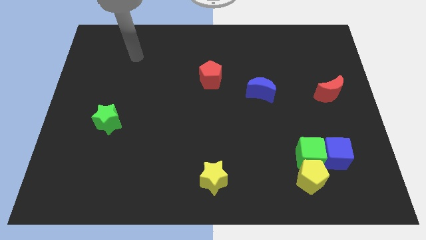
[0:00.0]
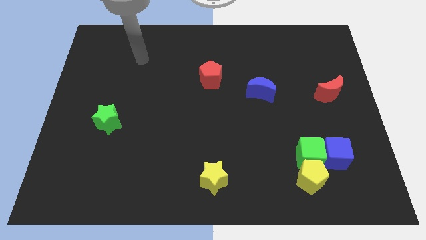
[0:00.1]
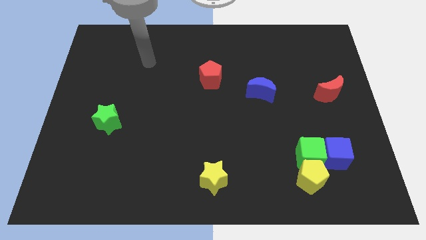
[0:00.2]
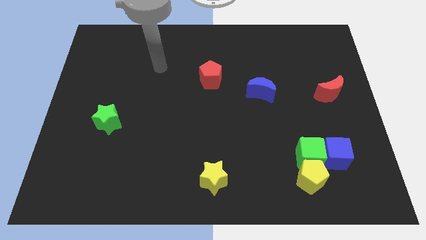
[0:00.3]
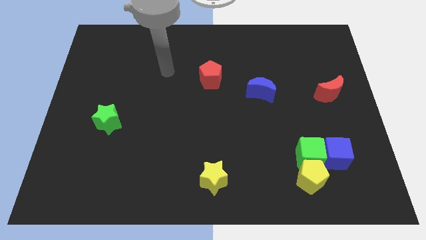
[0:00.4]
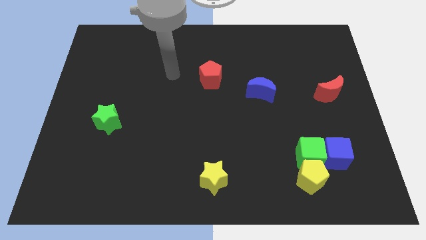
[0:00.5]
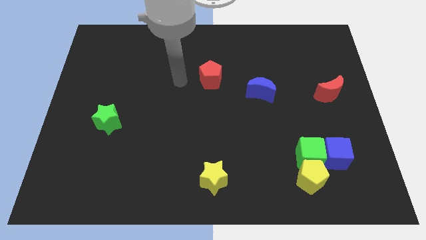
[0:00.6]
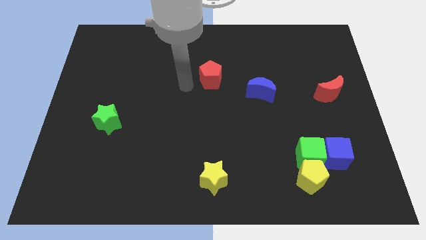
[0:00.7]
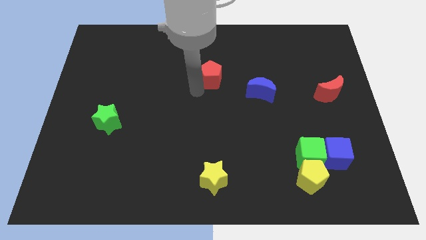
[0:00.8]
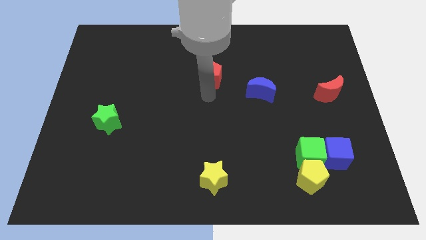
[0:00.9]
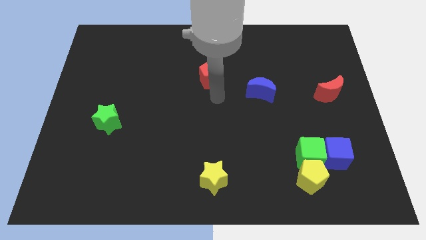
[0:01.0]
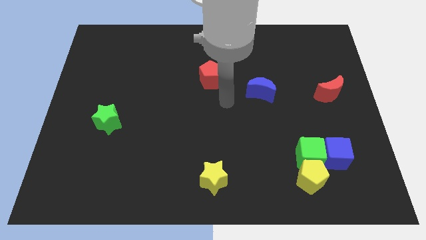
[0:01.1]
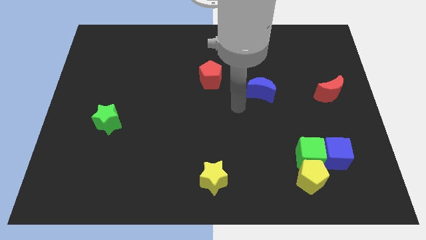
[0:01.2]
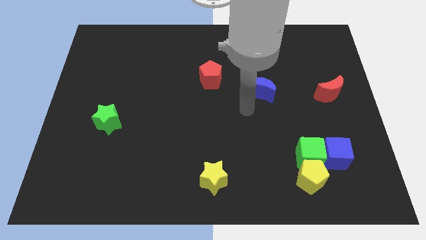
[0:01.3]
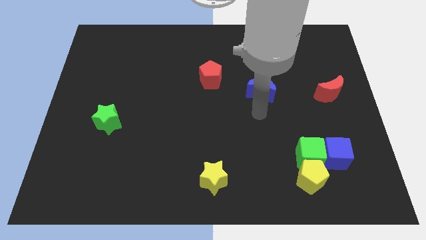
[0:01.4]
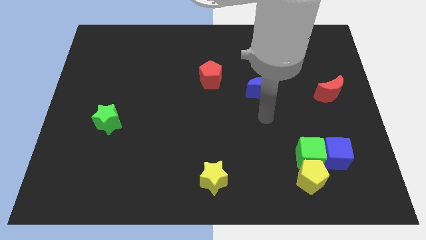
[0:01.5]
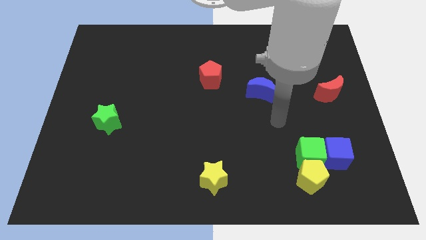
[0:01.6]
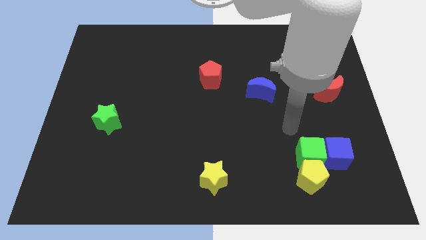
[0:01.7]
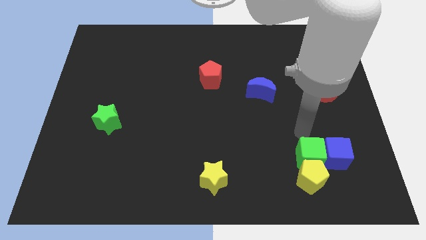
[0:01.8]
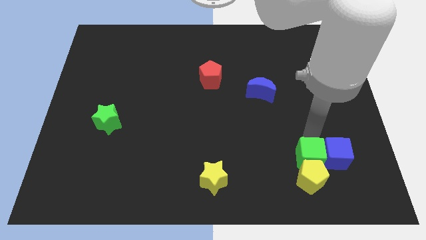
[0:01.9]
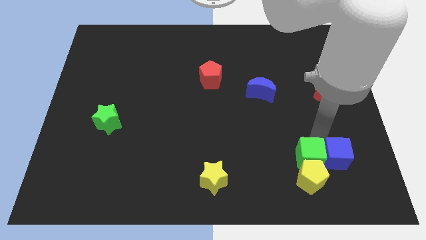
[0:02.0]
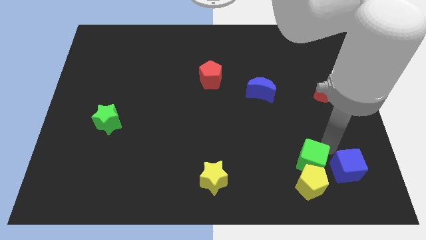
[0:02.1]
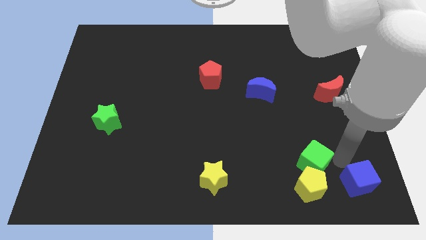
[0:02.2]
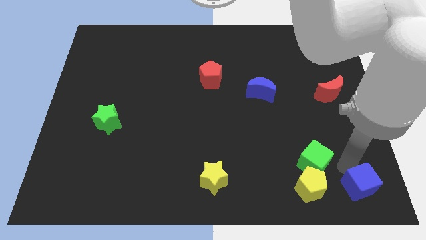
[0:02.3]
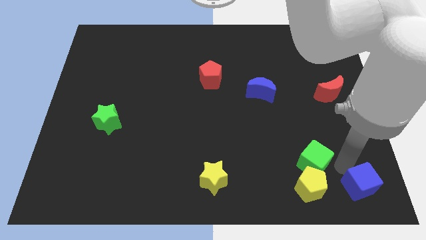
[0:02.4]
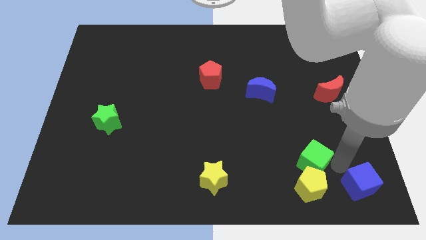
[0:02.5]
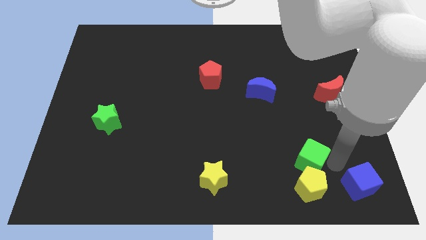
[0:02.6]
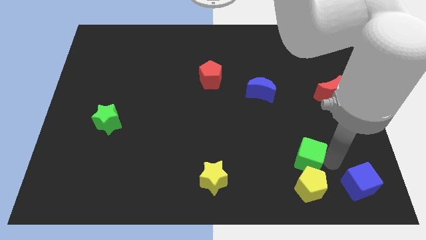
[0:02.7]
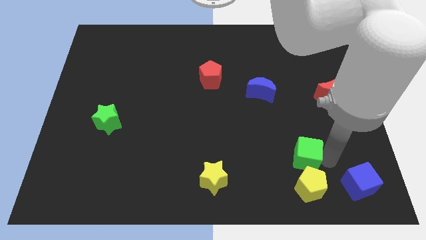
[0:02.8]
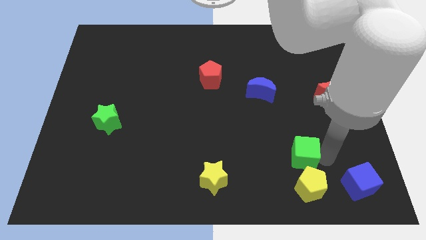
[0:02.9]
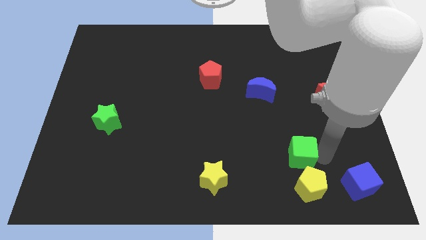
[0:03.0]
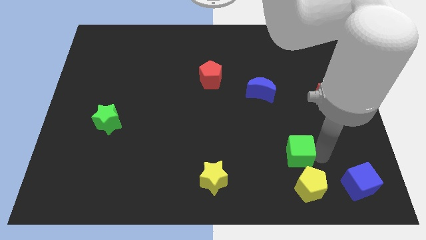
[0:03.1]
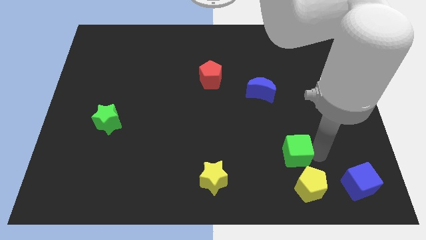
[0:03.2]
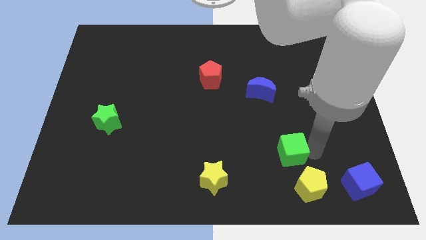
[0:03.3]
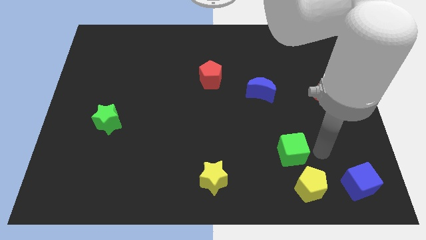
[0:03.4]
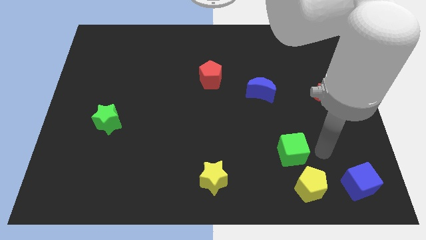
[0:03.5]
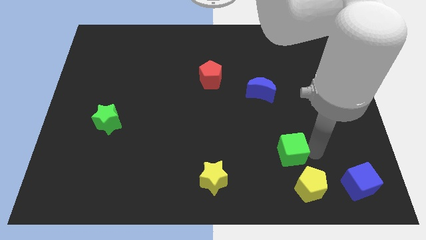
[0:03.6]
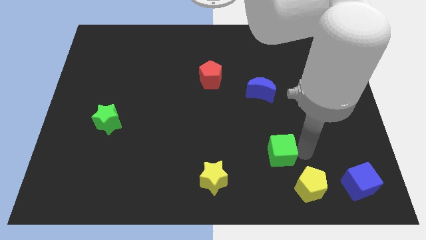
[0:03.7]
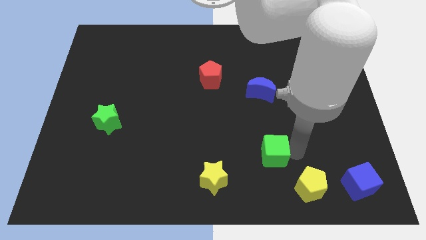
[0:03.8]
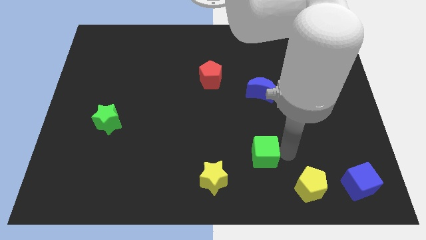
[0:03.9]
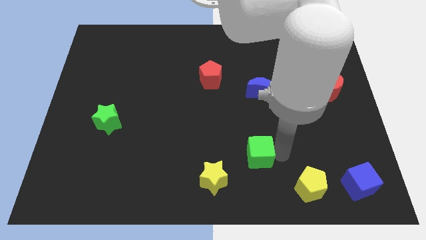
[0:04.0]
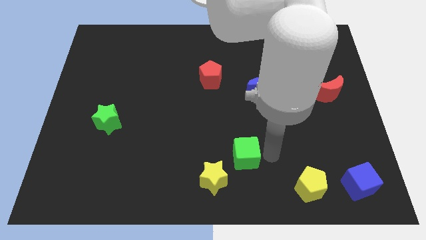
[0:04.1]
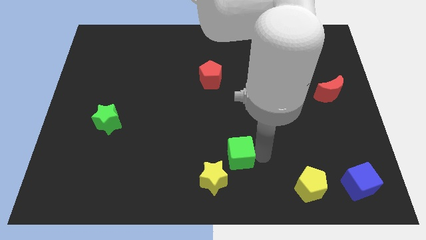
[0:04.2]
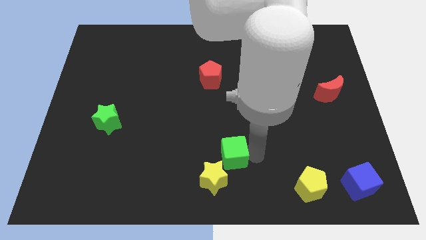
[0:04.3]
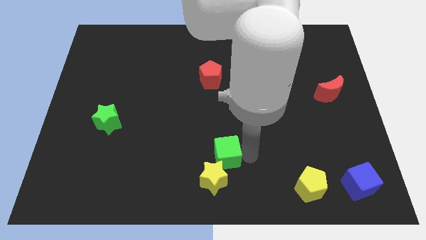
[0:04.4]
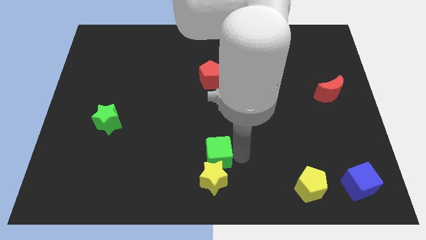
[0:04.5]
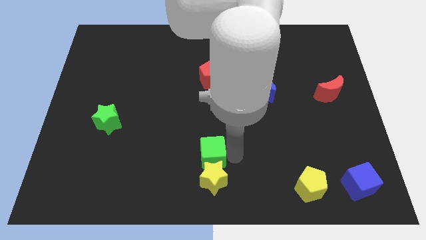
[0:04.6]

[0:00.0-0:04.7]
move the green cube to the left

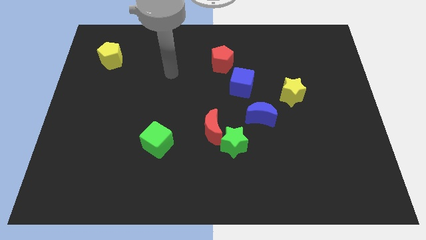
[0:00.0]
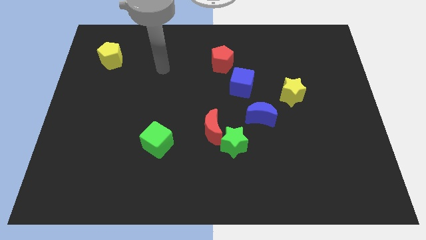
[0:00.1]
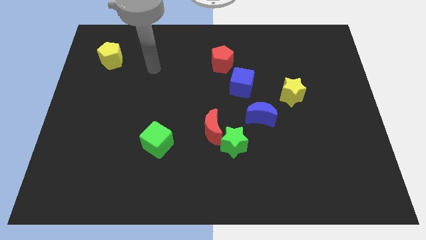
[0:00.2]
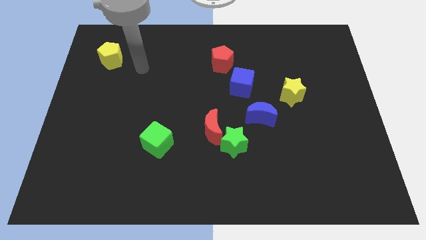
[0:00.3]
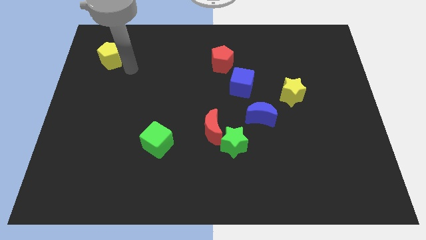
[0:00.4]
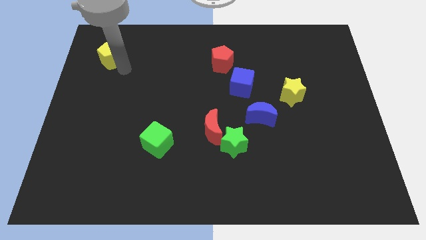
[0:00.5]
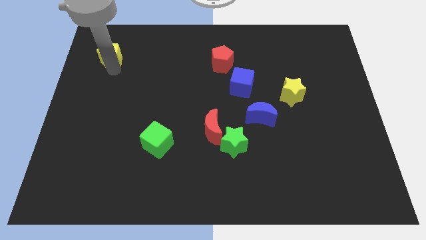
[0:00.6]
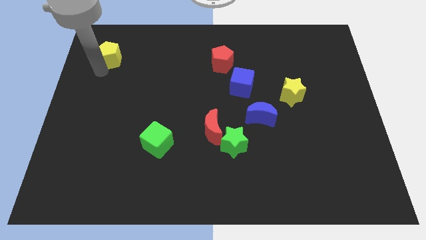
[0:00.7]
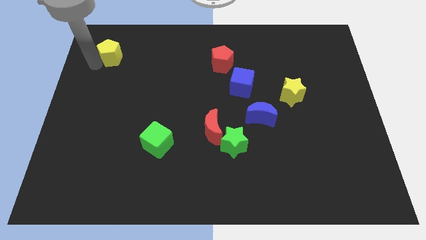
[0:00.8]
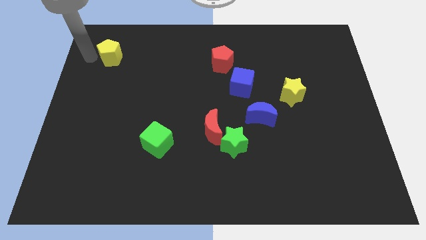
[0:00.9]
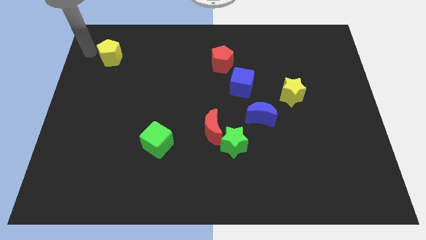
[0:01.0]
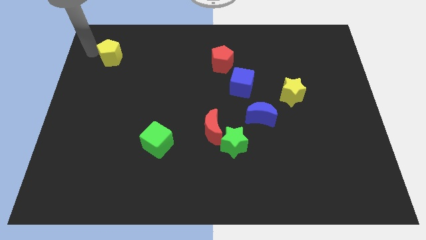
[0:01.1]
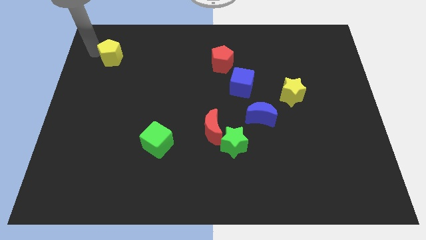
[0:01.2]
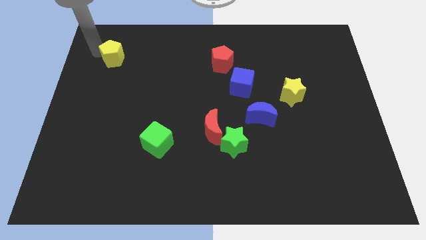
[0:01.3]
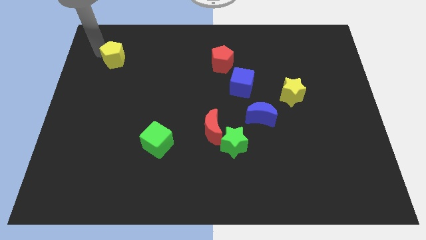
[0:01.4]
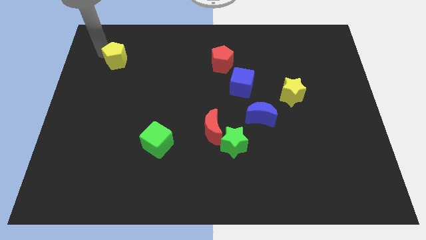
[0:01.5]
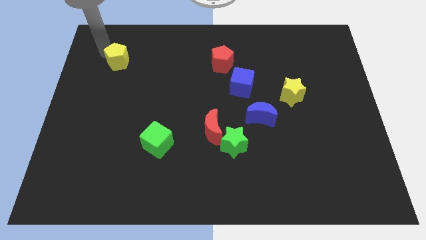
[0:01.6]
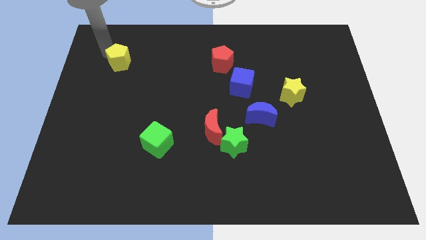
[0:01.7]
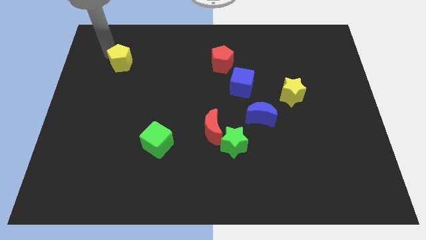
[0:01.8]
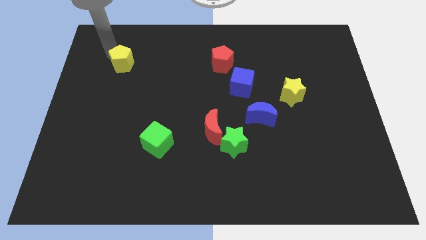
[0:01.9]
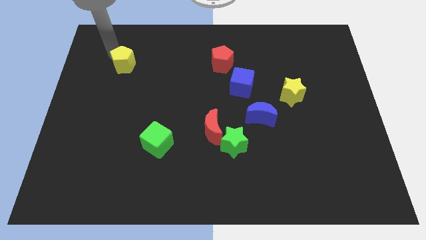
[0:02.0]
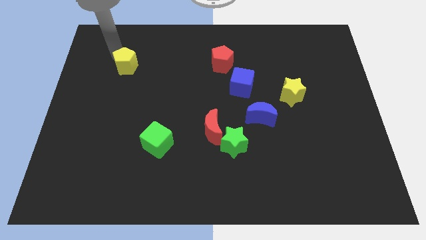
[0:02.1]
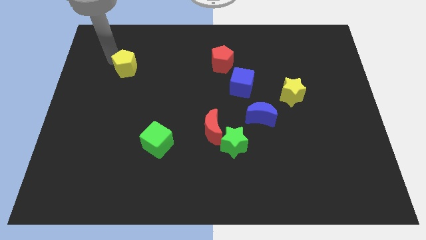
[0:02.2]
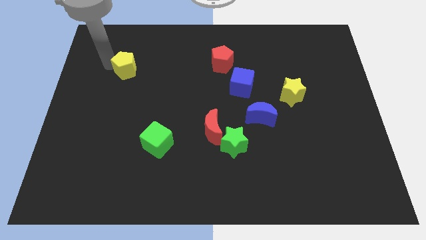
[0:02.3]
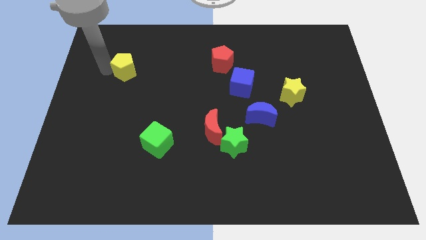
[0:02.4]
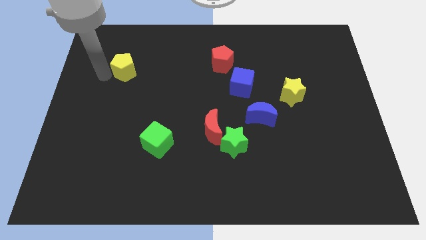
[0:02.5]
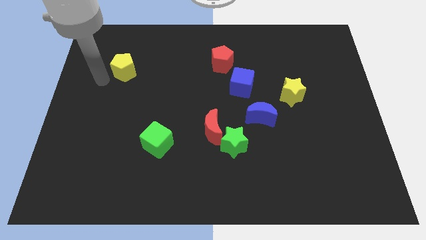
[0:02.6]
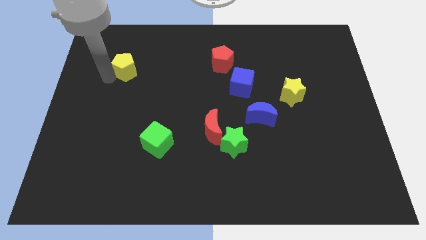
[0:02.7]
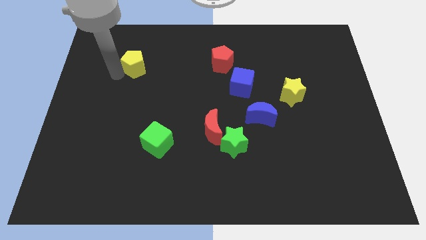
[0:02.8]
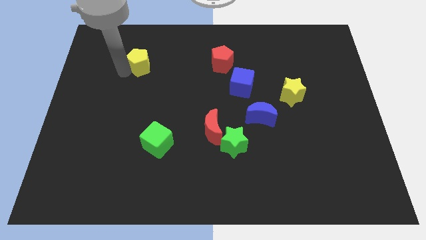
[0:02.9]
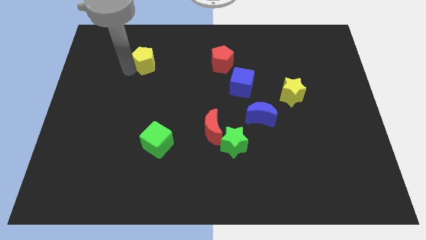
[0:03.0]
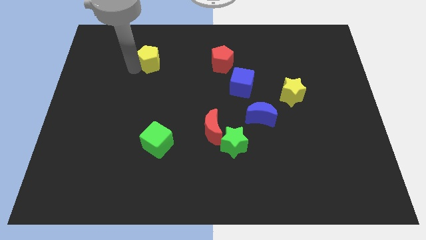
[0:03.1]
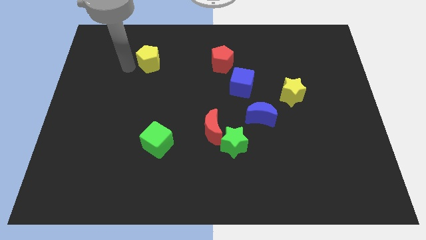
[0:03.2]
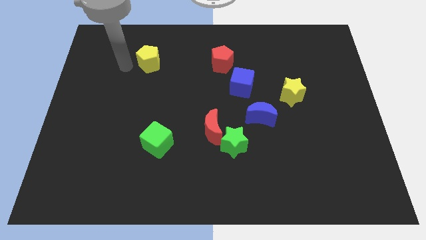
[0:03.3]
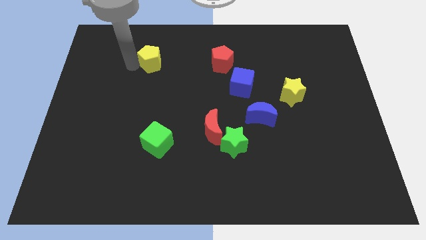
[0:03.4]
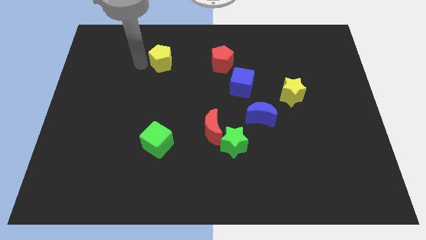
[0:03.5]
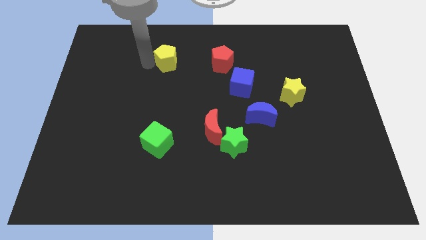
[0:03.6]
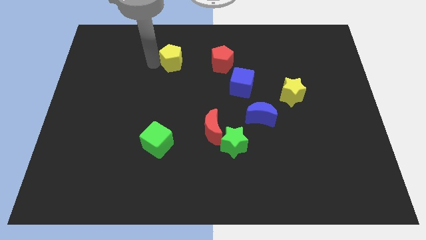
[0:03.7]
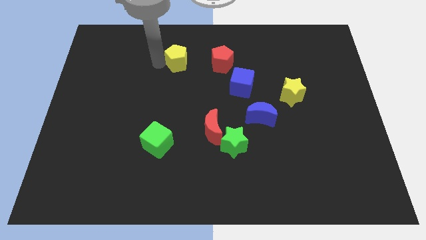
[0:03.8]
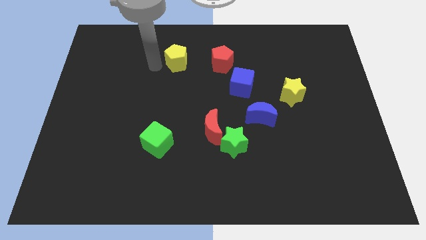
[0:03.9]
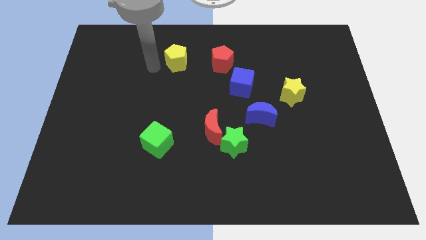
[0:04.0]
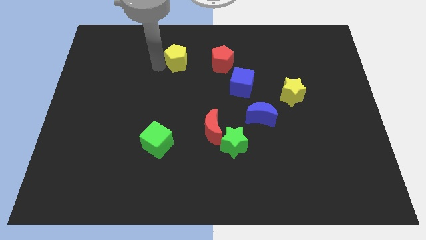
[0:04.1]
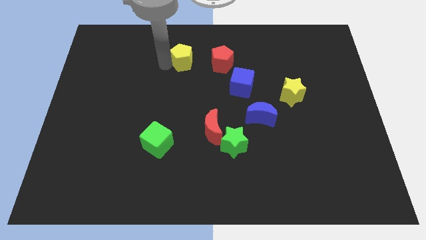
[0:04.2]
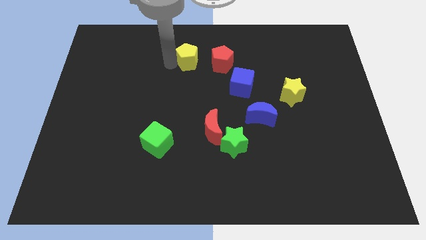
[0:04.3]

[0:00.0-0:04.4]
push the yellow pentagon right
